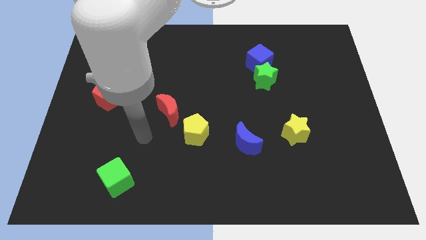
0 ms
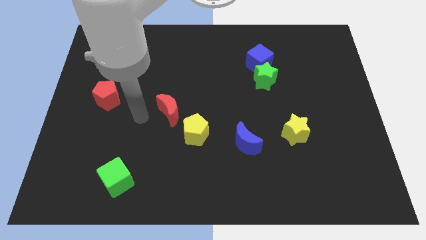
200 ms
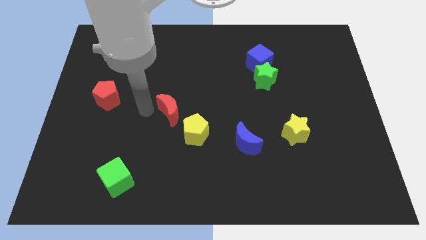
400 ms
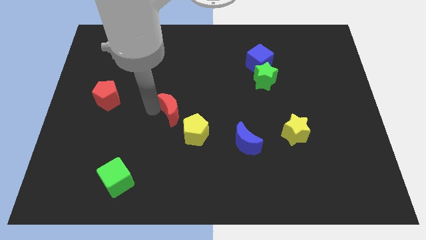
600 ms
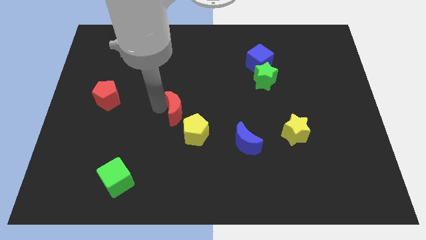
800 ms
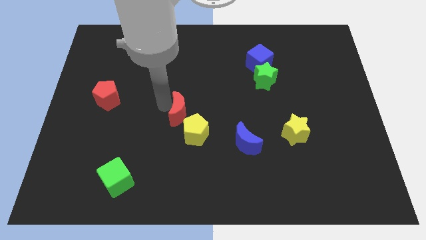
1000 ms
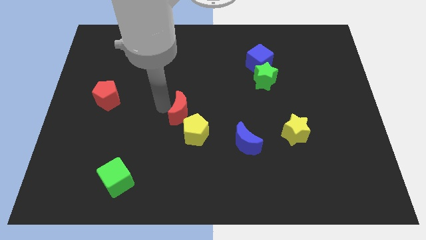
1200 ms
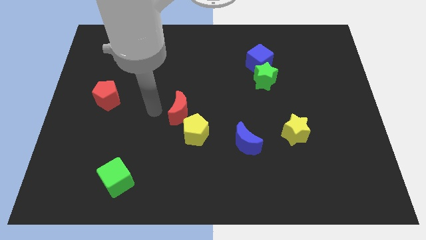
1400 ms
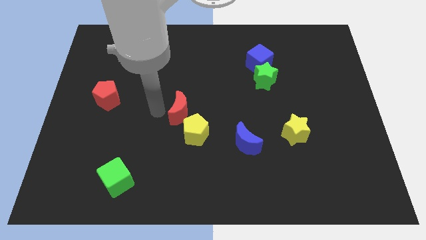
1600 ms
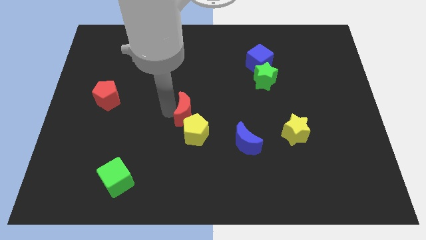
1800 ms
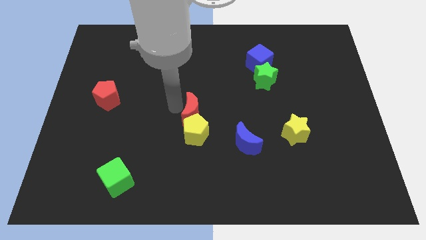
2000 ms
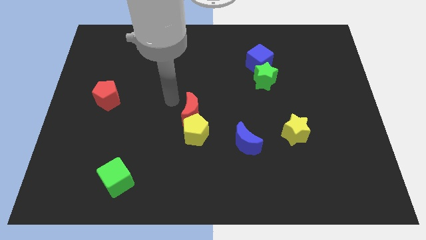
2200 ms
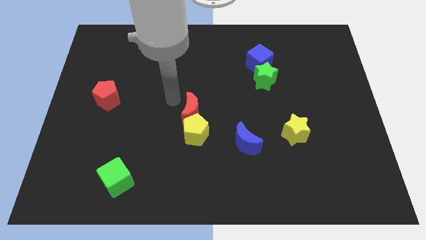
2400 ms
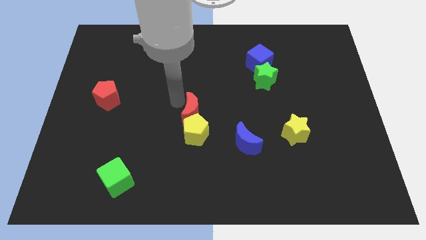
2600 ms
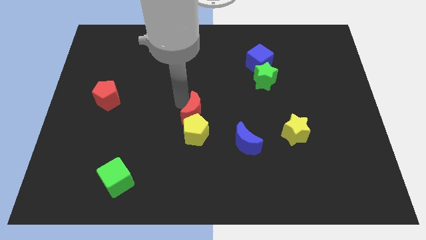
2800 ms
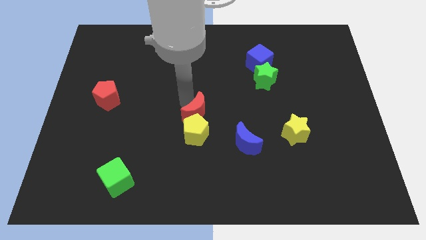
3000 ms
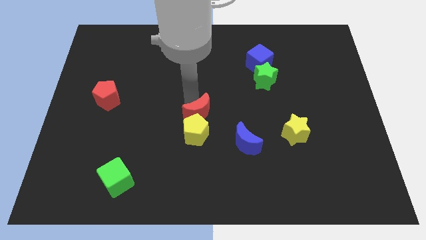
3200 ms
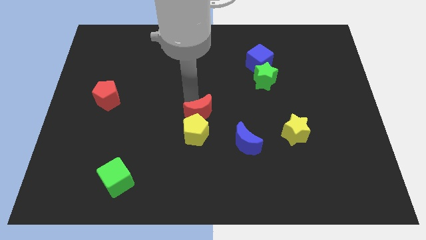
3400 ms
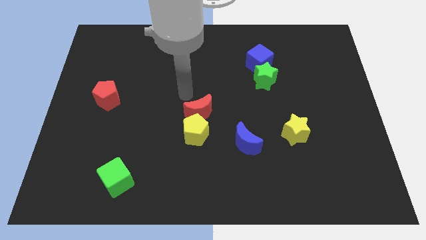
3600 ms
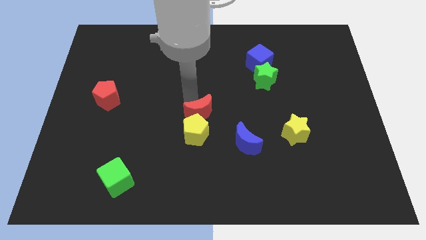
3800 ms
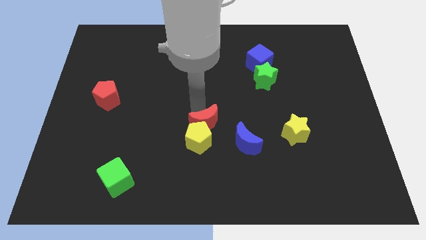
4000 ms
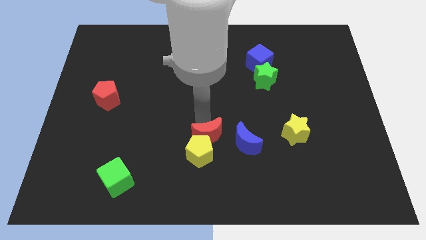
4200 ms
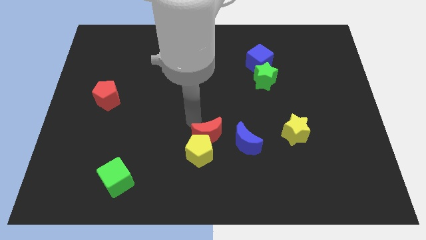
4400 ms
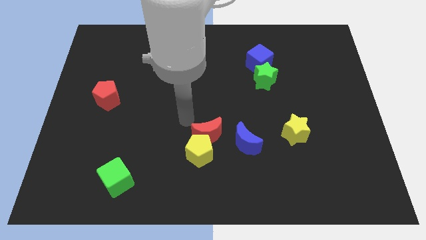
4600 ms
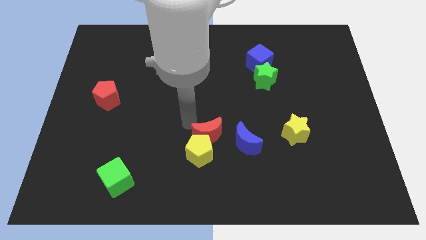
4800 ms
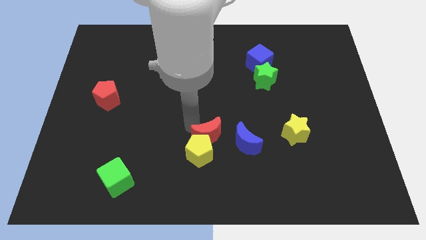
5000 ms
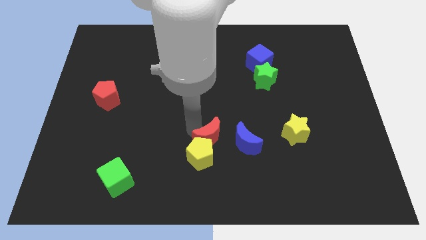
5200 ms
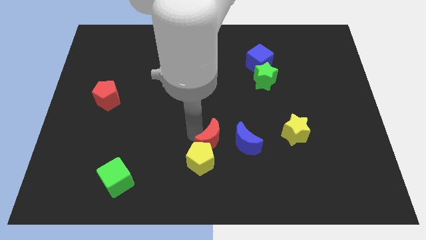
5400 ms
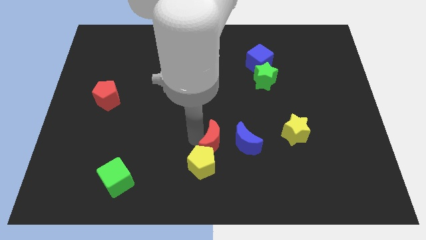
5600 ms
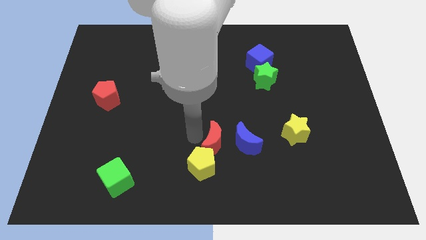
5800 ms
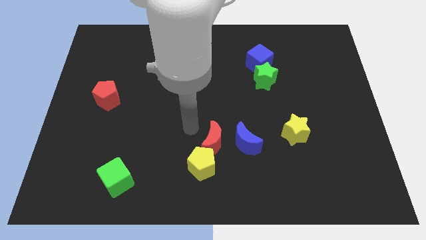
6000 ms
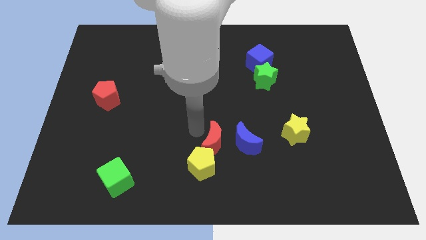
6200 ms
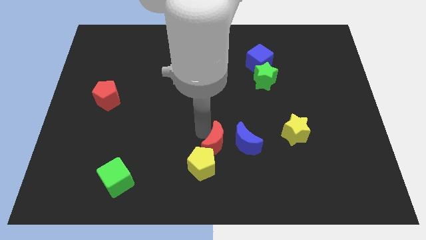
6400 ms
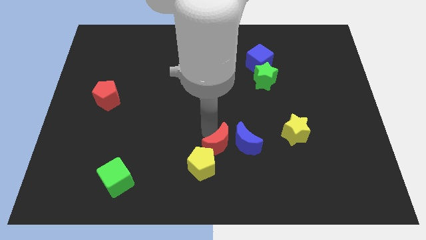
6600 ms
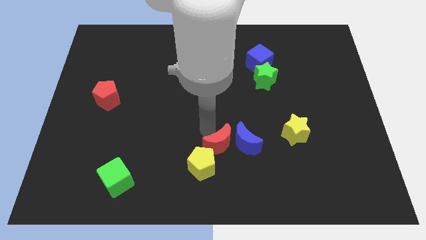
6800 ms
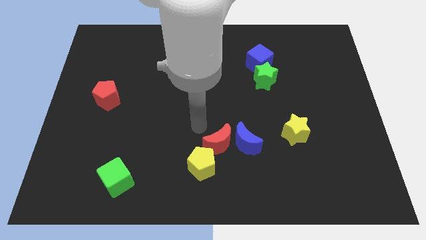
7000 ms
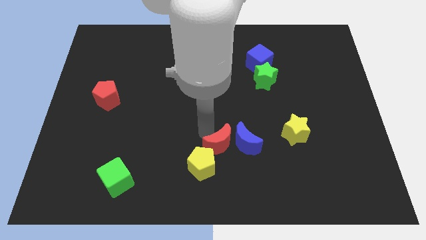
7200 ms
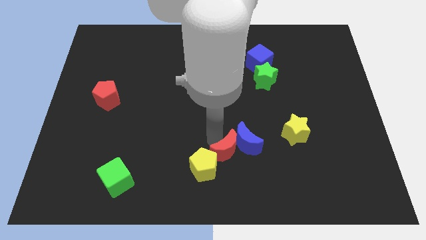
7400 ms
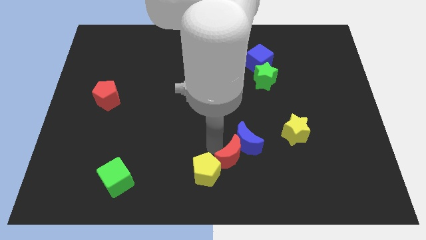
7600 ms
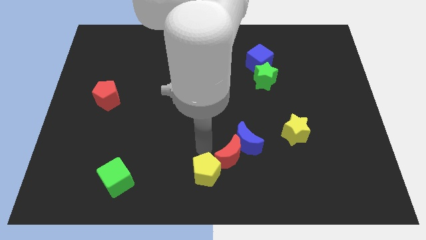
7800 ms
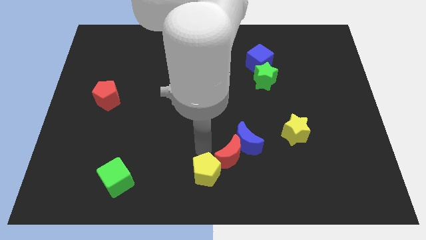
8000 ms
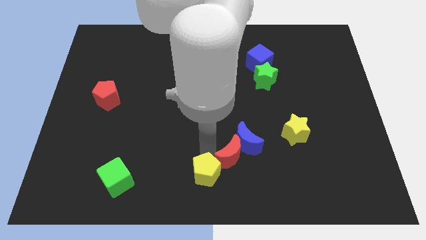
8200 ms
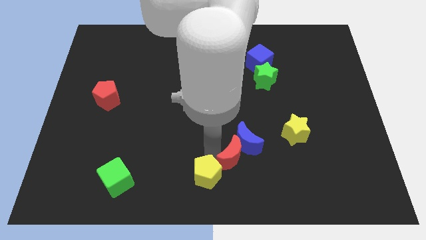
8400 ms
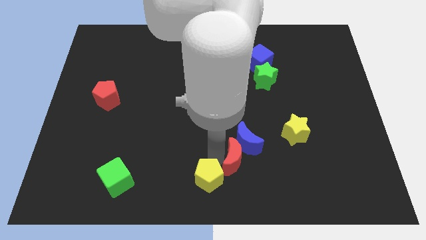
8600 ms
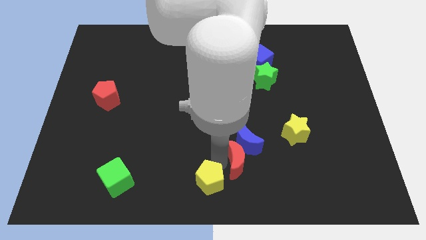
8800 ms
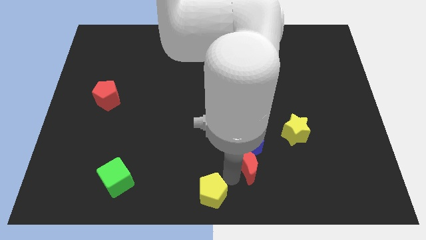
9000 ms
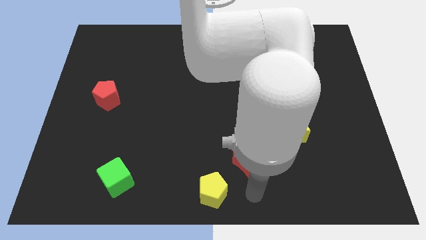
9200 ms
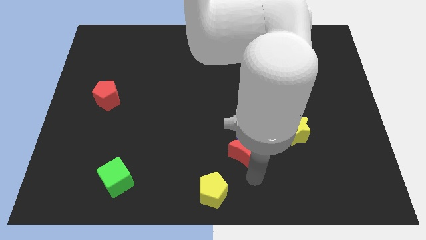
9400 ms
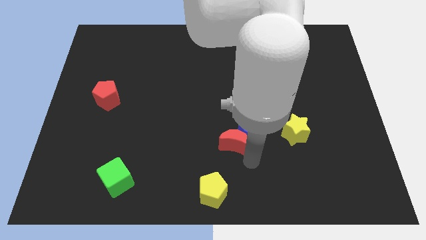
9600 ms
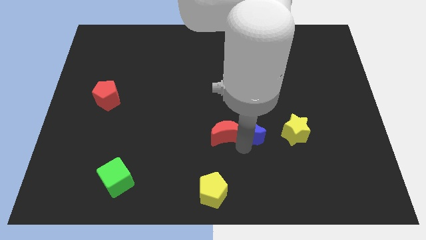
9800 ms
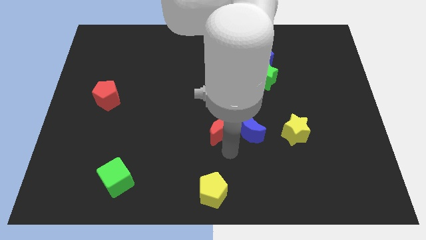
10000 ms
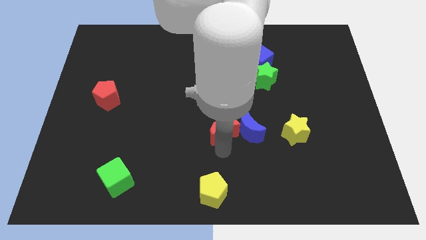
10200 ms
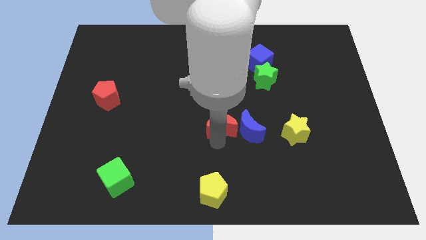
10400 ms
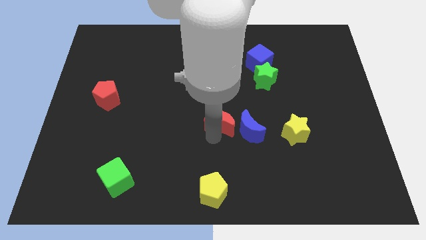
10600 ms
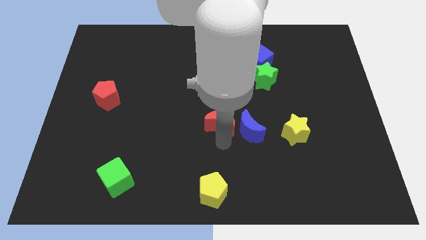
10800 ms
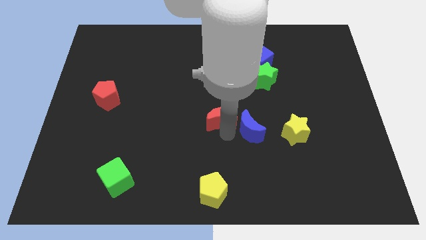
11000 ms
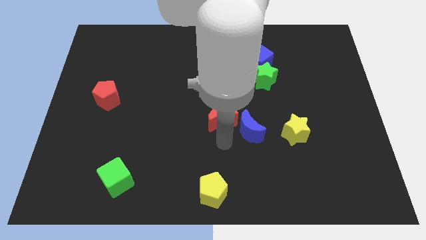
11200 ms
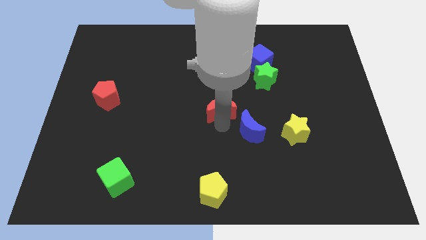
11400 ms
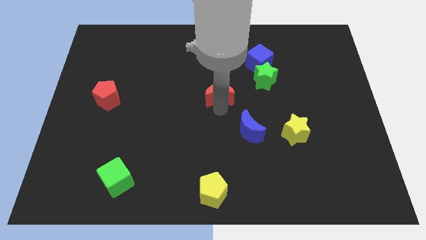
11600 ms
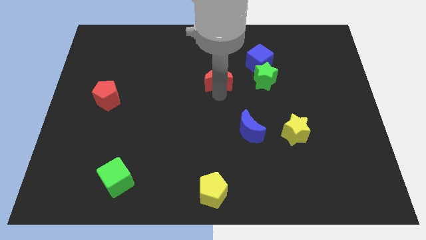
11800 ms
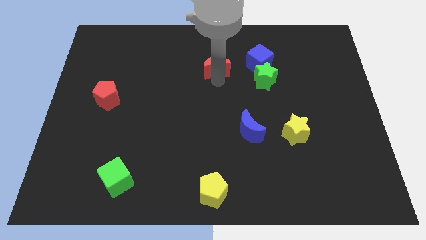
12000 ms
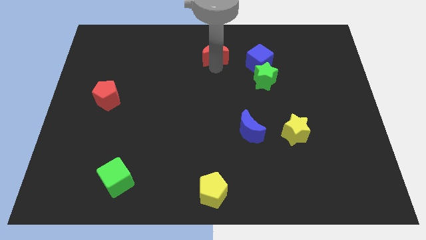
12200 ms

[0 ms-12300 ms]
slide the red moon to the towards your base
